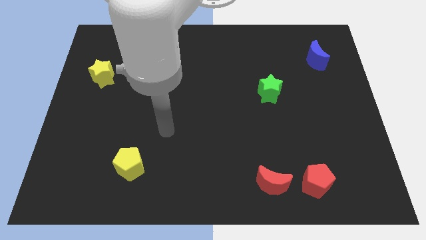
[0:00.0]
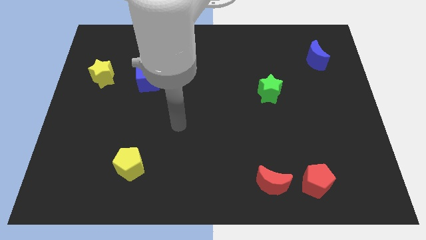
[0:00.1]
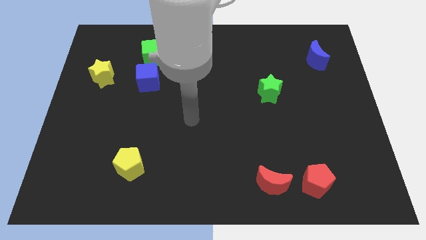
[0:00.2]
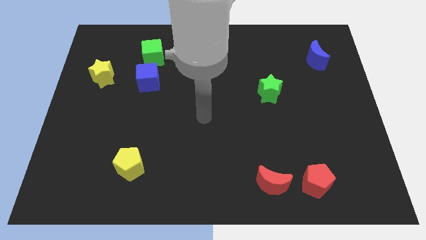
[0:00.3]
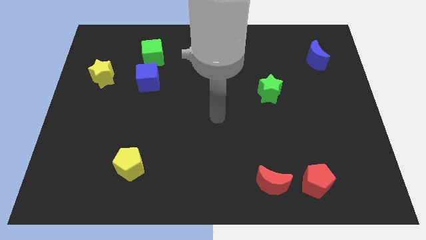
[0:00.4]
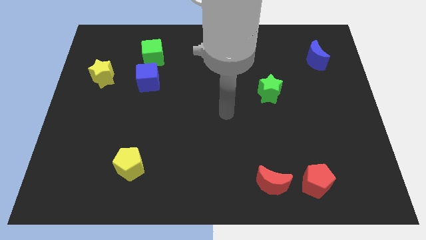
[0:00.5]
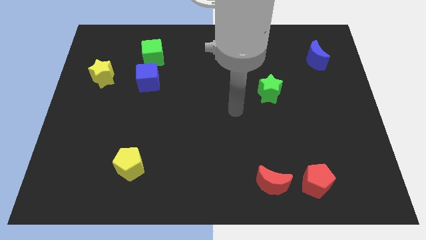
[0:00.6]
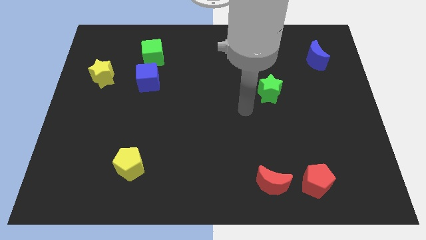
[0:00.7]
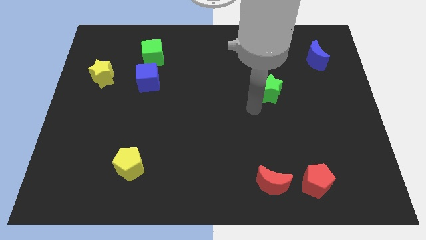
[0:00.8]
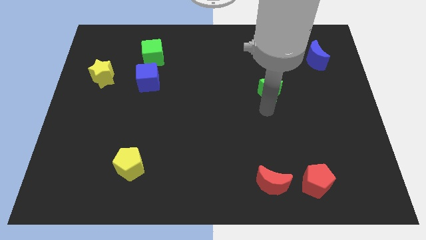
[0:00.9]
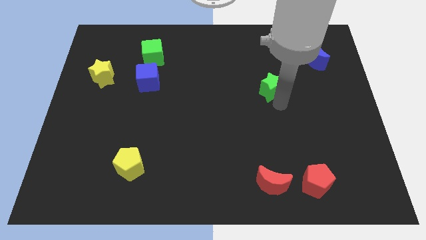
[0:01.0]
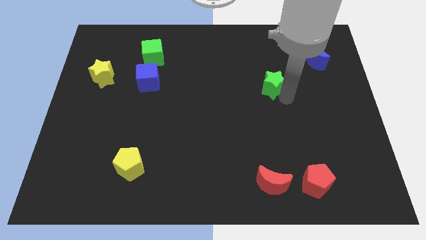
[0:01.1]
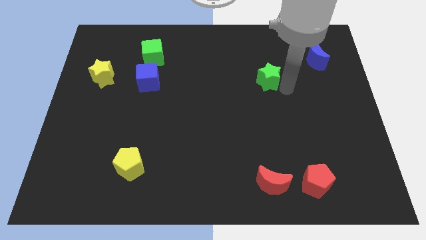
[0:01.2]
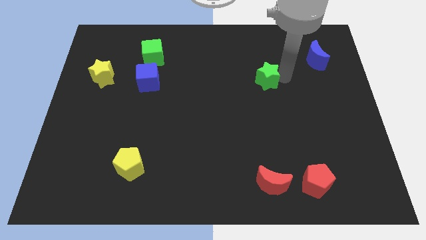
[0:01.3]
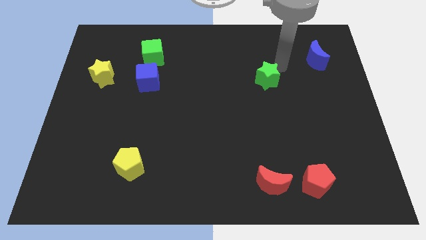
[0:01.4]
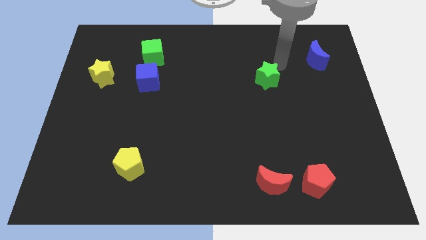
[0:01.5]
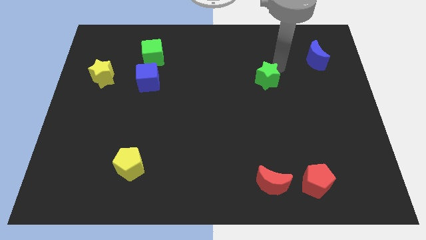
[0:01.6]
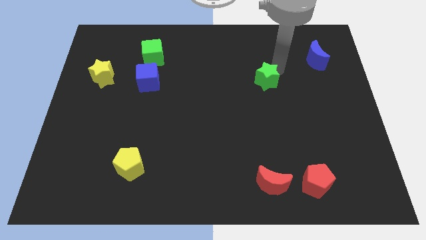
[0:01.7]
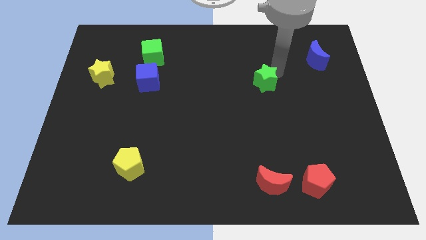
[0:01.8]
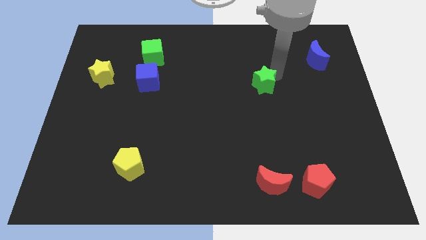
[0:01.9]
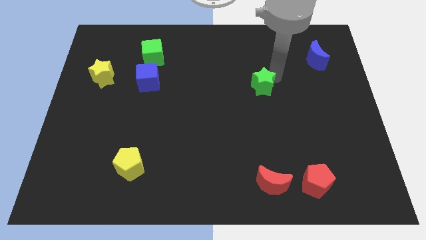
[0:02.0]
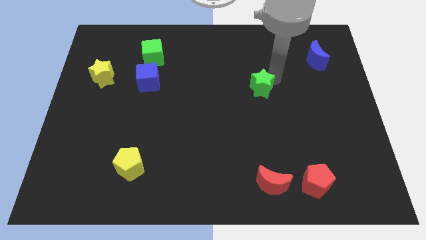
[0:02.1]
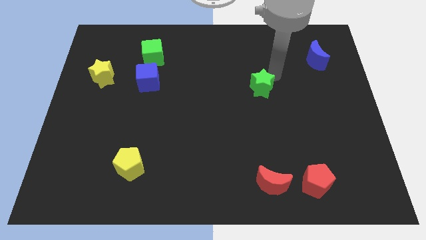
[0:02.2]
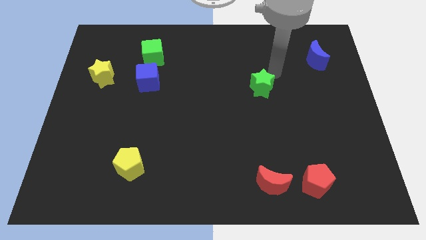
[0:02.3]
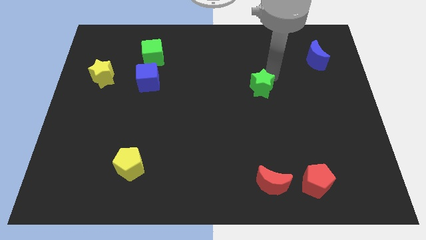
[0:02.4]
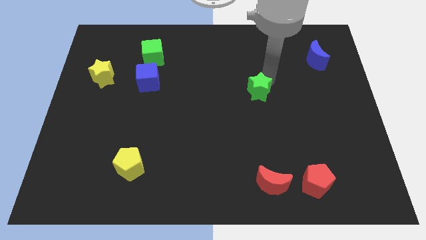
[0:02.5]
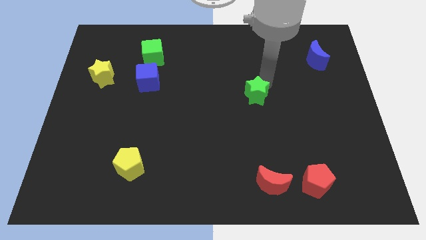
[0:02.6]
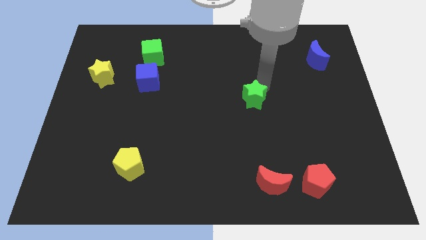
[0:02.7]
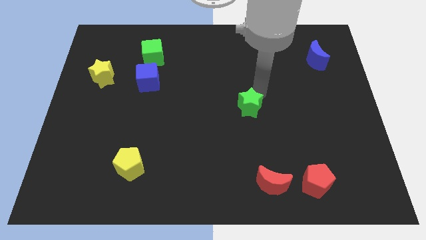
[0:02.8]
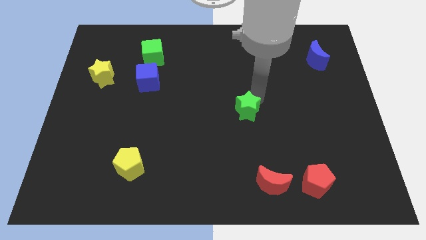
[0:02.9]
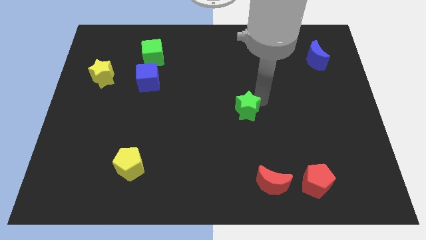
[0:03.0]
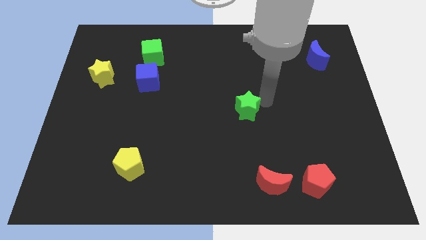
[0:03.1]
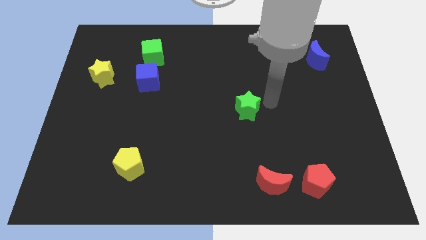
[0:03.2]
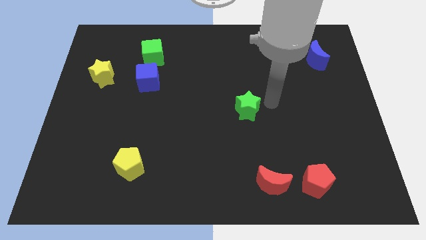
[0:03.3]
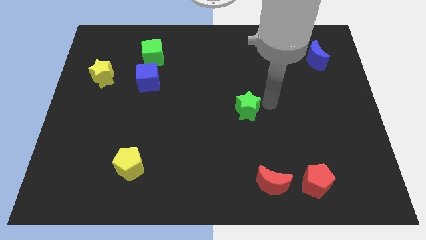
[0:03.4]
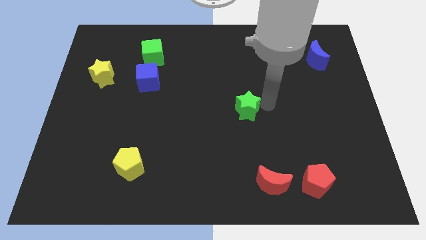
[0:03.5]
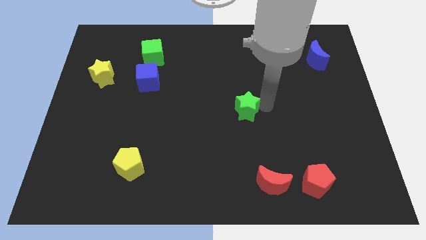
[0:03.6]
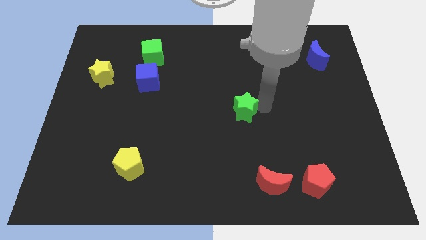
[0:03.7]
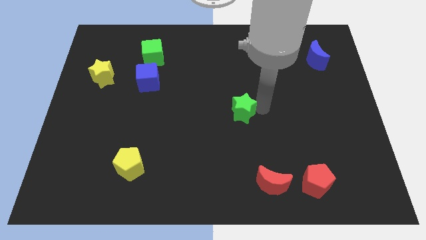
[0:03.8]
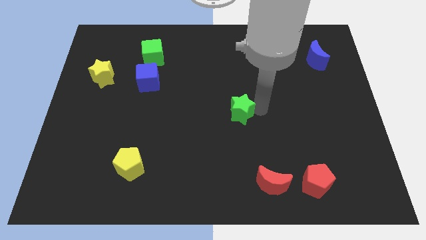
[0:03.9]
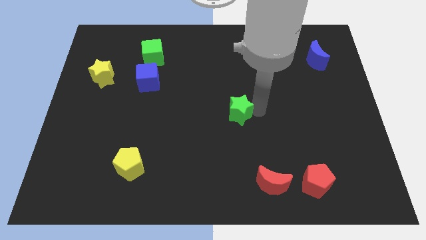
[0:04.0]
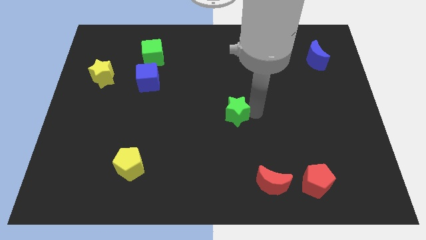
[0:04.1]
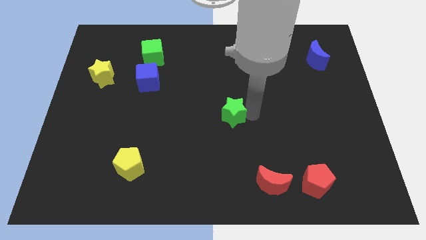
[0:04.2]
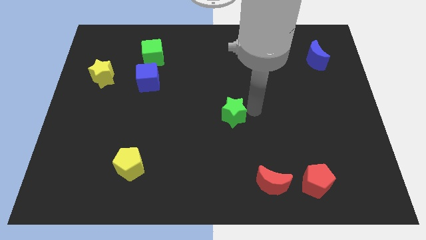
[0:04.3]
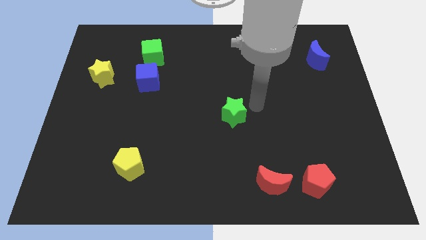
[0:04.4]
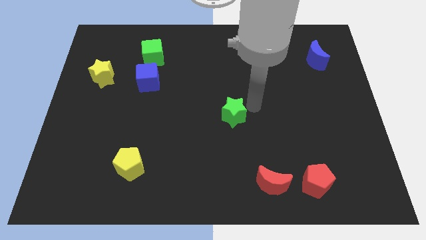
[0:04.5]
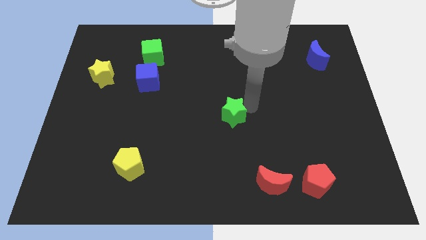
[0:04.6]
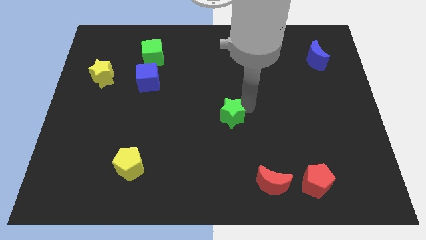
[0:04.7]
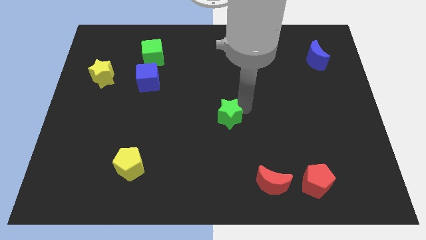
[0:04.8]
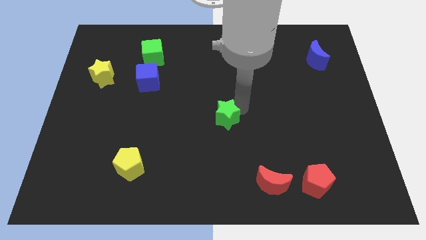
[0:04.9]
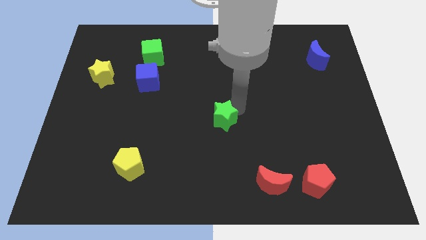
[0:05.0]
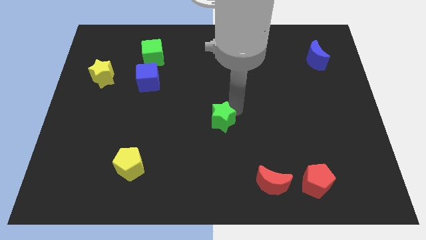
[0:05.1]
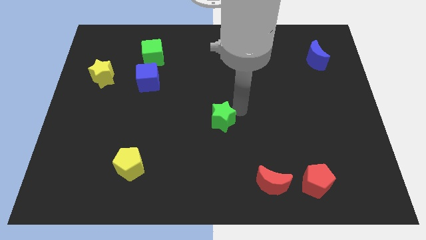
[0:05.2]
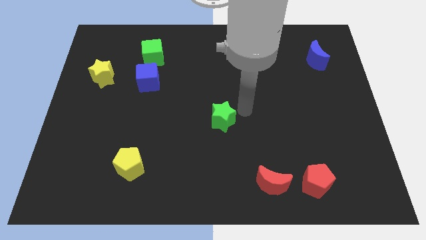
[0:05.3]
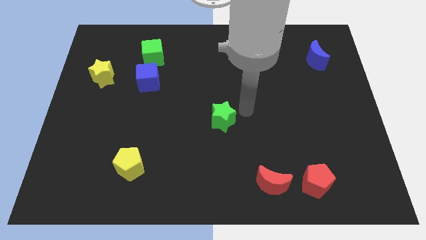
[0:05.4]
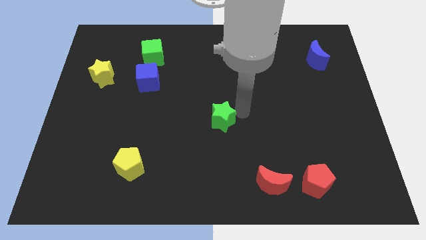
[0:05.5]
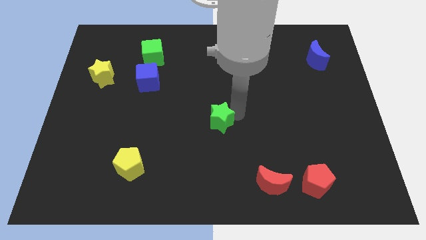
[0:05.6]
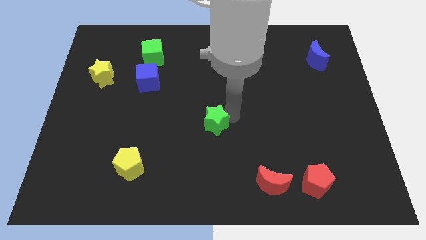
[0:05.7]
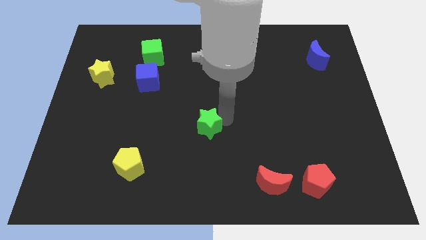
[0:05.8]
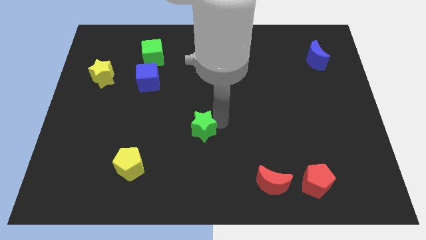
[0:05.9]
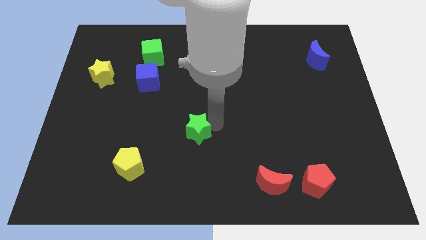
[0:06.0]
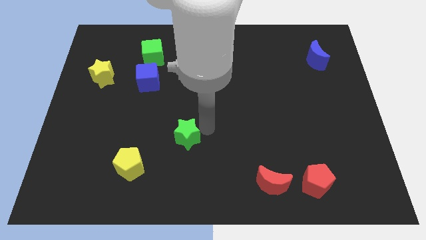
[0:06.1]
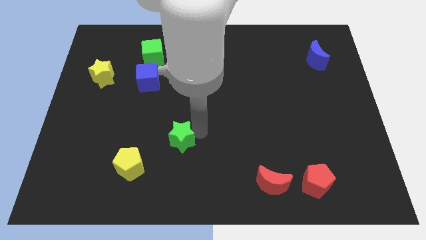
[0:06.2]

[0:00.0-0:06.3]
put the green star diagonally up and to the right of the yellow pentagon
